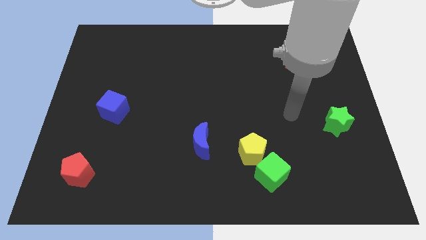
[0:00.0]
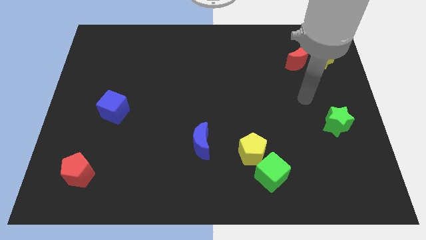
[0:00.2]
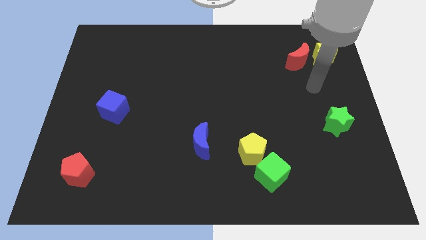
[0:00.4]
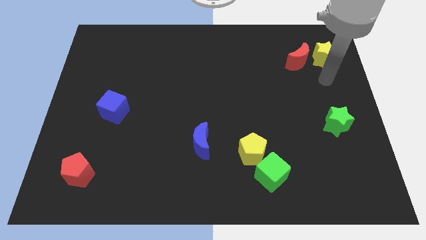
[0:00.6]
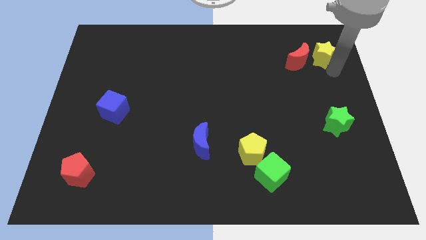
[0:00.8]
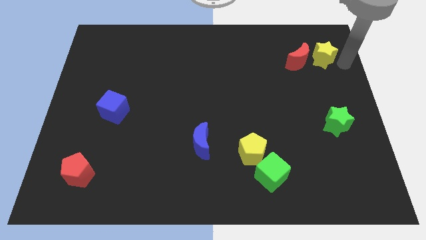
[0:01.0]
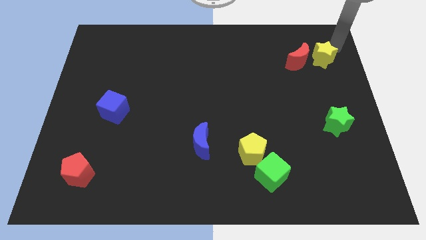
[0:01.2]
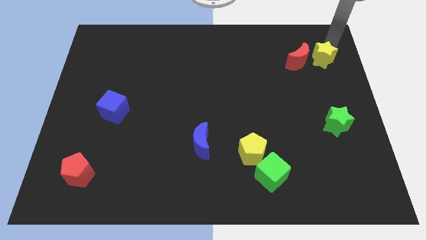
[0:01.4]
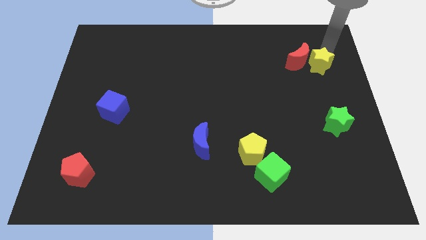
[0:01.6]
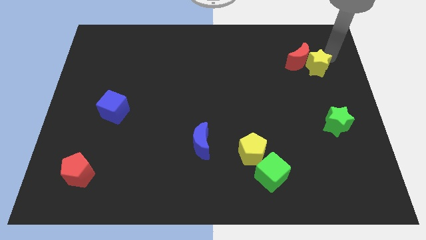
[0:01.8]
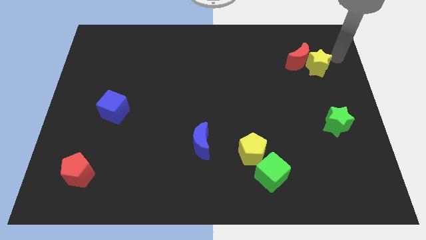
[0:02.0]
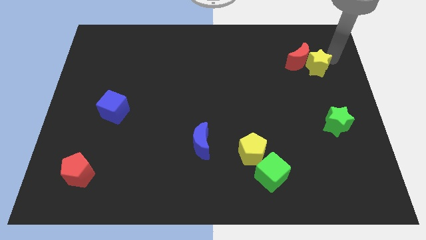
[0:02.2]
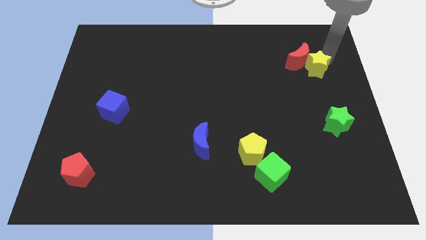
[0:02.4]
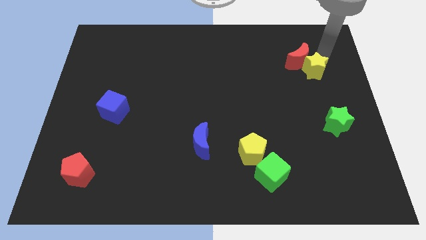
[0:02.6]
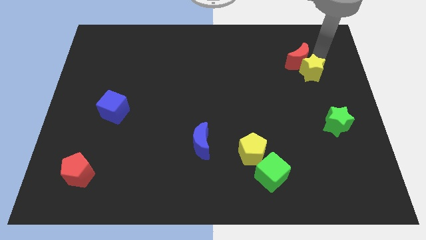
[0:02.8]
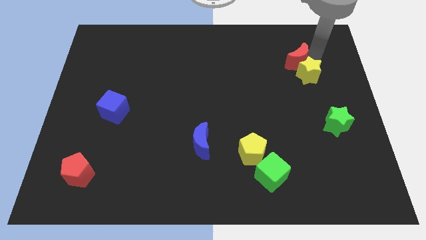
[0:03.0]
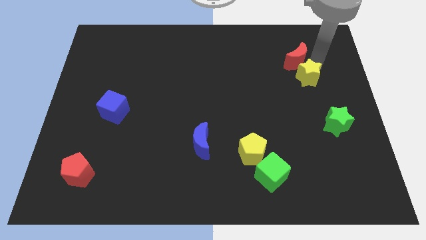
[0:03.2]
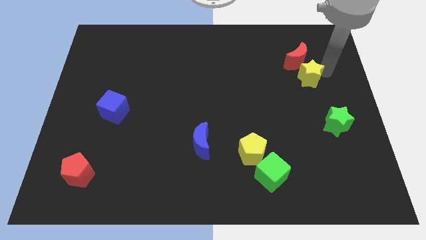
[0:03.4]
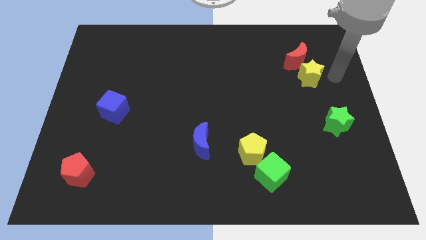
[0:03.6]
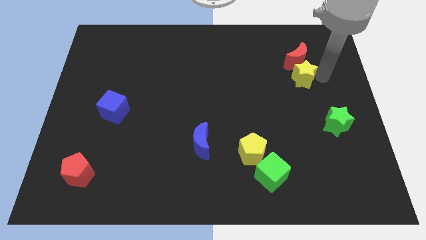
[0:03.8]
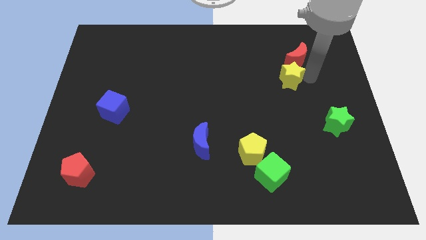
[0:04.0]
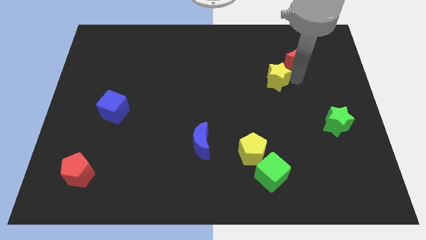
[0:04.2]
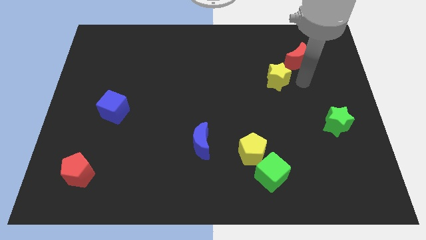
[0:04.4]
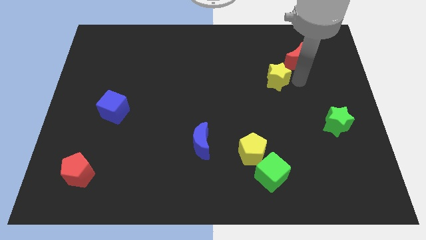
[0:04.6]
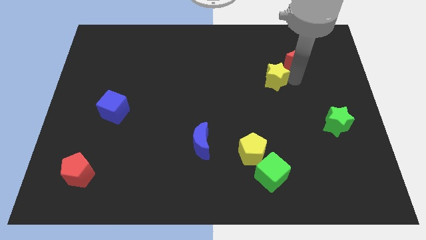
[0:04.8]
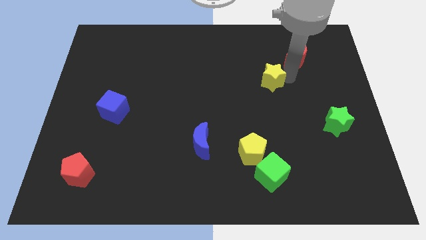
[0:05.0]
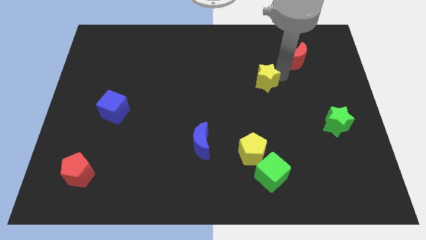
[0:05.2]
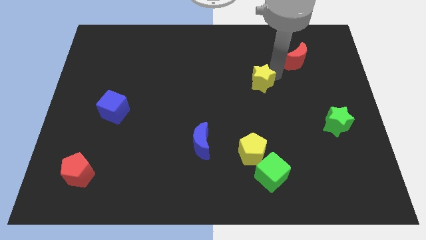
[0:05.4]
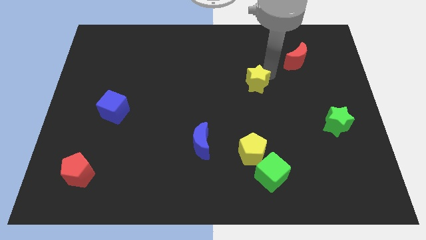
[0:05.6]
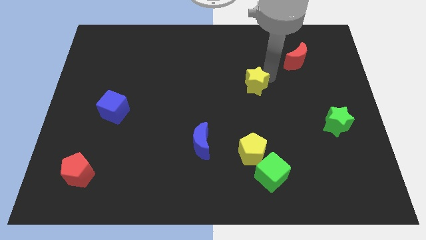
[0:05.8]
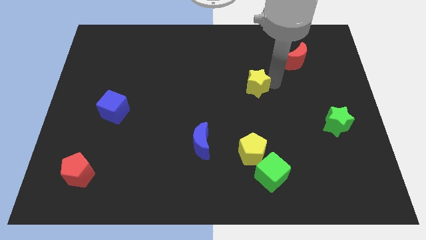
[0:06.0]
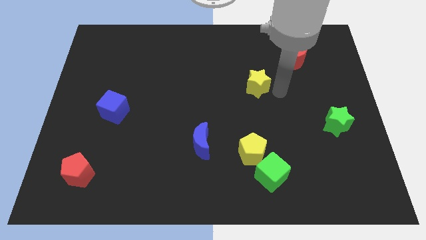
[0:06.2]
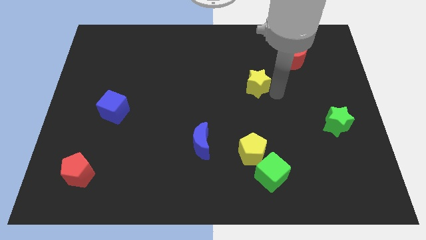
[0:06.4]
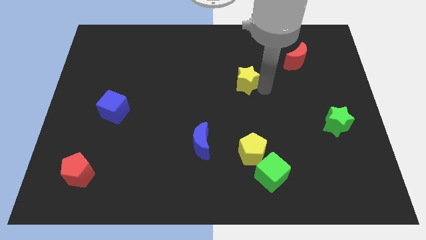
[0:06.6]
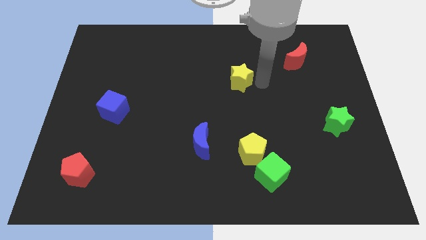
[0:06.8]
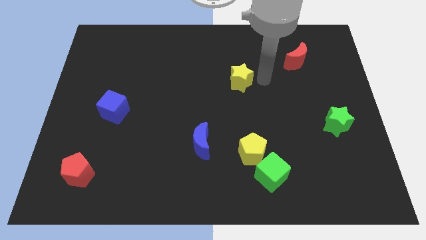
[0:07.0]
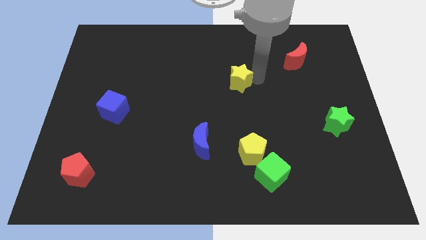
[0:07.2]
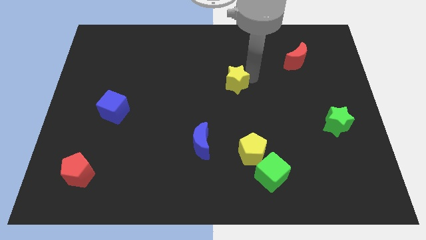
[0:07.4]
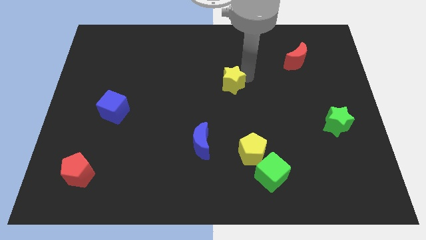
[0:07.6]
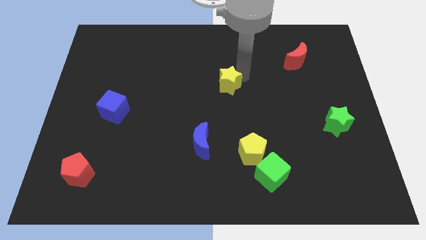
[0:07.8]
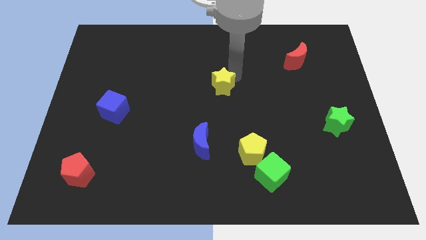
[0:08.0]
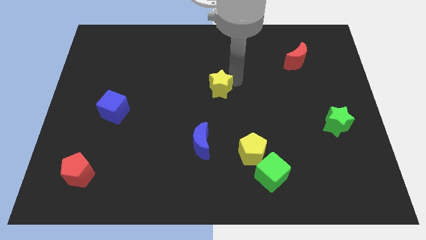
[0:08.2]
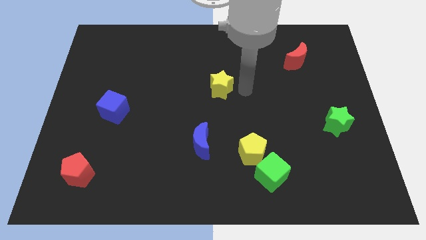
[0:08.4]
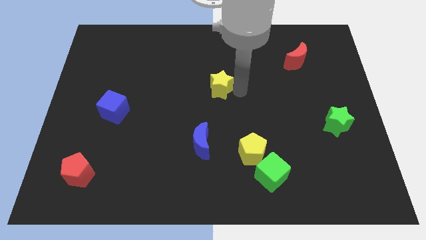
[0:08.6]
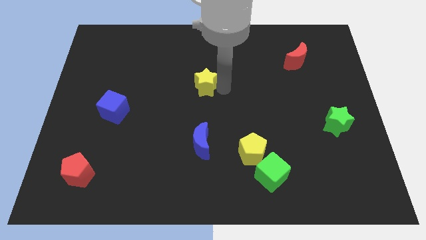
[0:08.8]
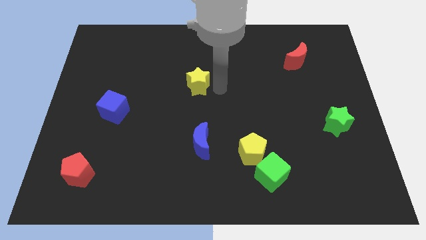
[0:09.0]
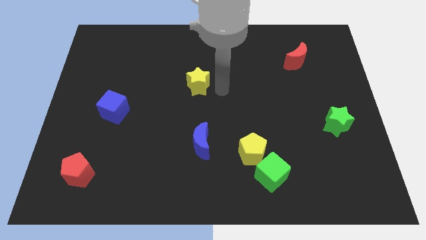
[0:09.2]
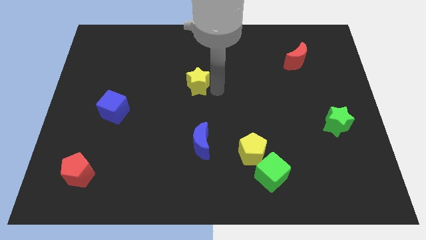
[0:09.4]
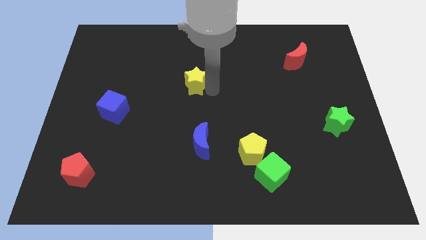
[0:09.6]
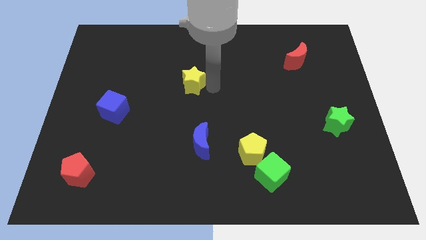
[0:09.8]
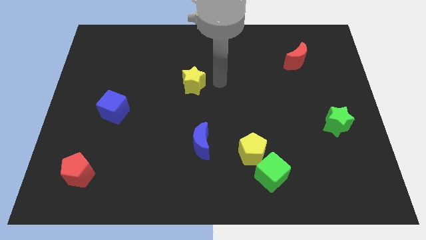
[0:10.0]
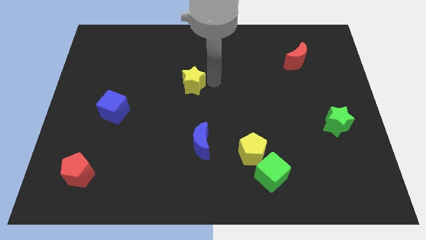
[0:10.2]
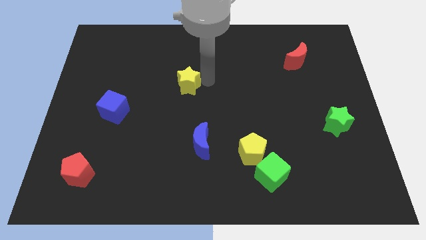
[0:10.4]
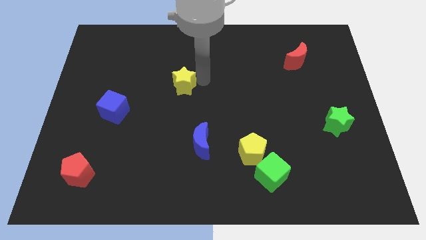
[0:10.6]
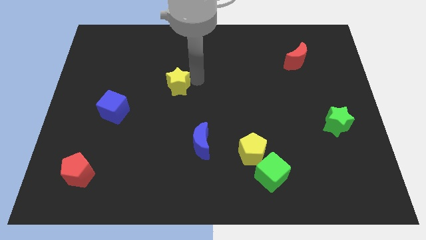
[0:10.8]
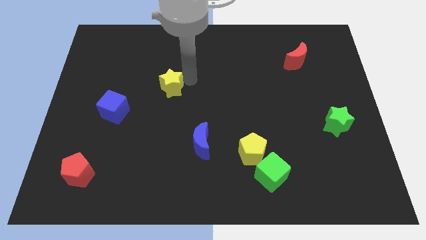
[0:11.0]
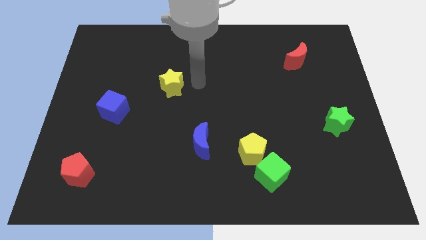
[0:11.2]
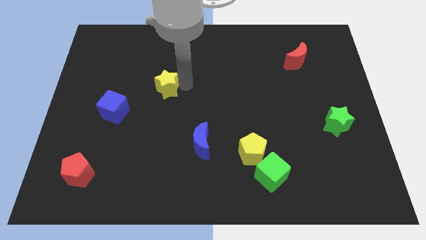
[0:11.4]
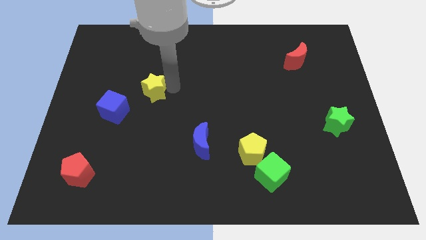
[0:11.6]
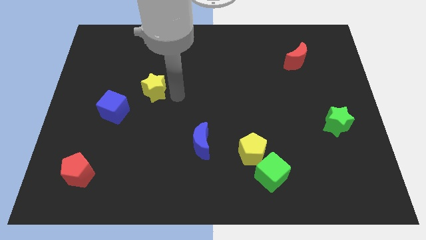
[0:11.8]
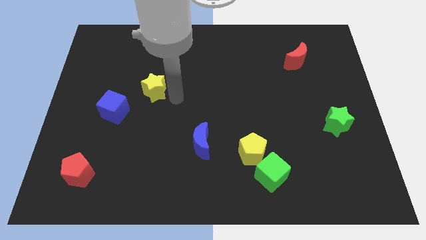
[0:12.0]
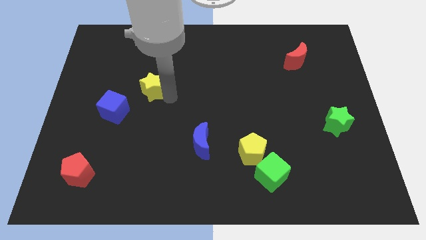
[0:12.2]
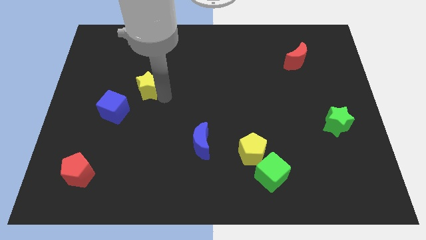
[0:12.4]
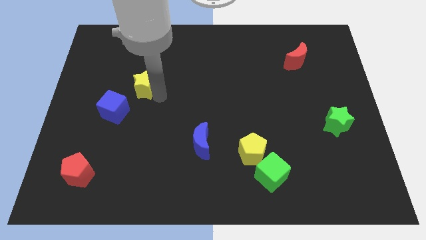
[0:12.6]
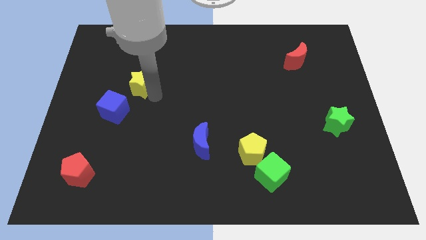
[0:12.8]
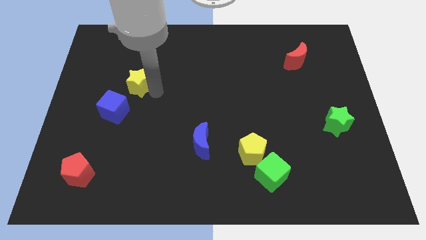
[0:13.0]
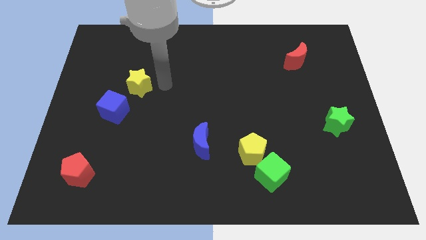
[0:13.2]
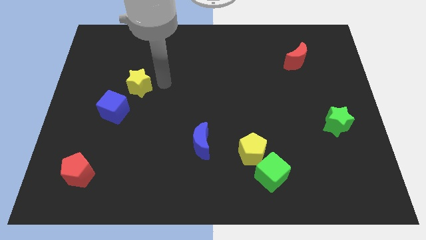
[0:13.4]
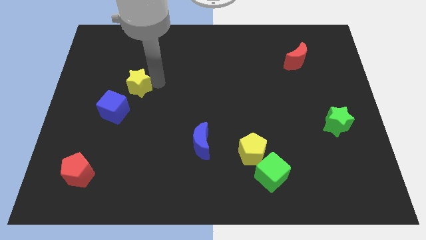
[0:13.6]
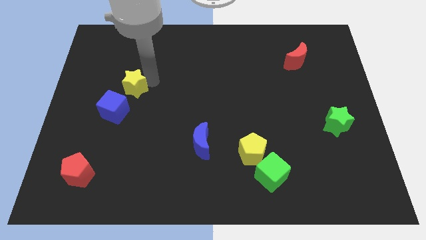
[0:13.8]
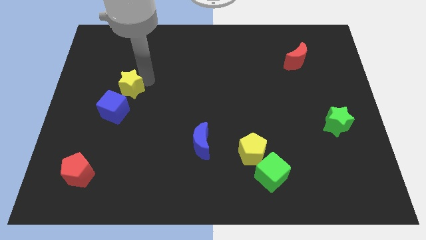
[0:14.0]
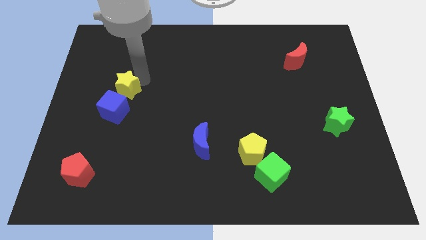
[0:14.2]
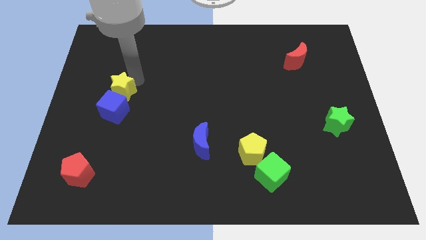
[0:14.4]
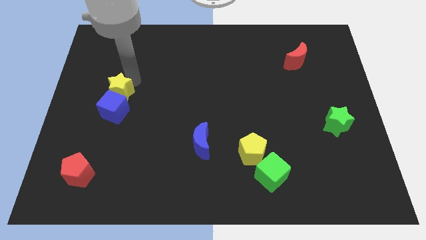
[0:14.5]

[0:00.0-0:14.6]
slide the yellow star diagonally up and to the left of the blue cube

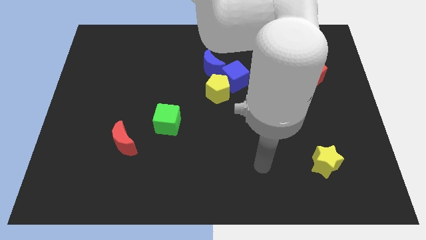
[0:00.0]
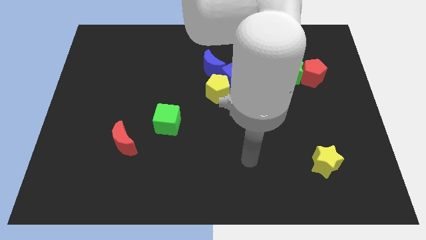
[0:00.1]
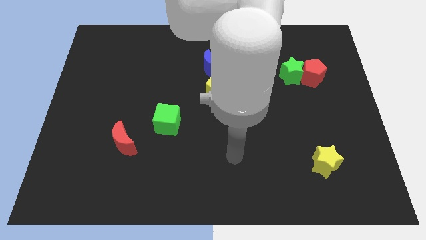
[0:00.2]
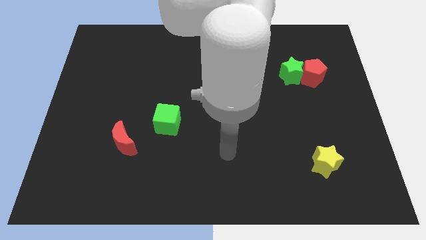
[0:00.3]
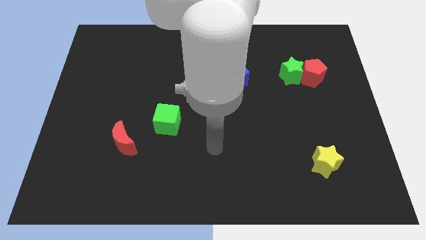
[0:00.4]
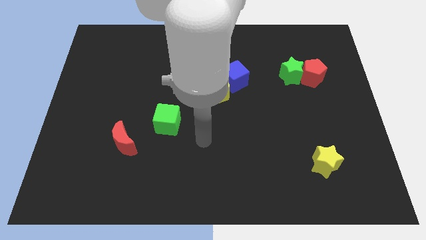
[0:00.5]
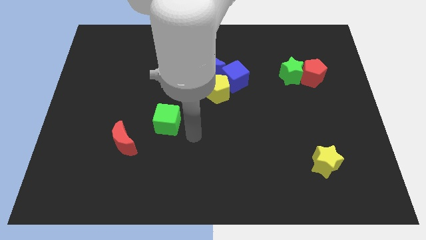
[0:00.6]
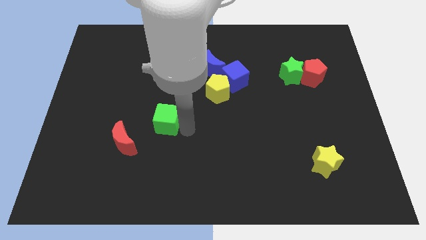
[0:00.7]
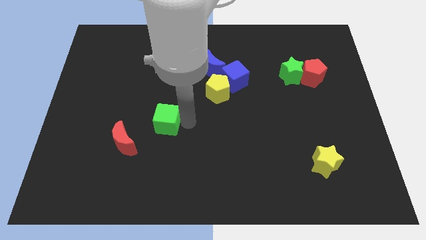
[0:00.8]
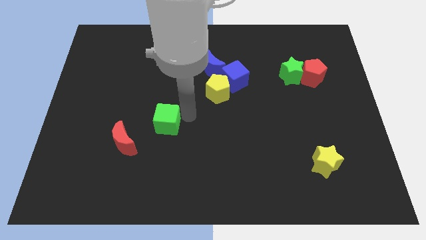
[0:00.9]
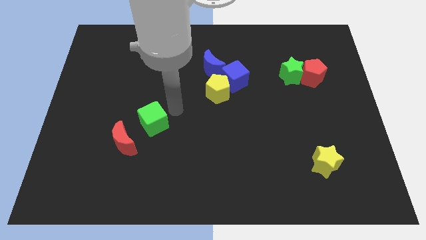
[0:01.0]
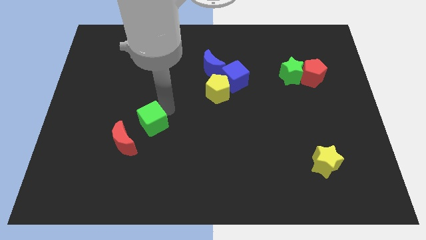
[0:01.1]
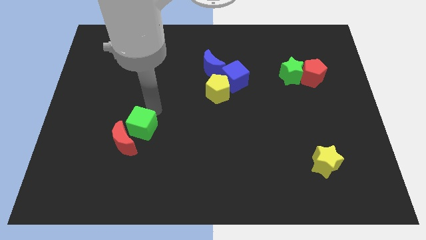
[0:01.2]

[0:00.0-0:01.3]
slide the red moon below the green cube
